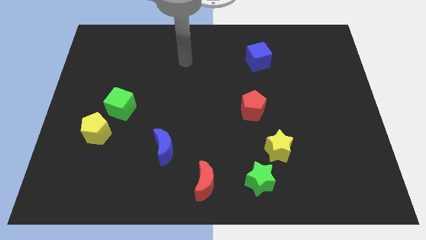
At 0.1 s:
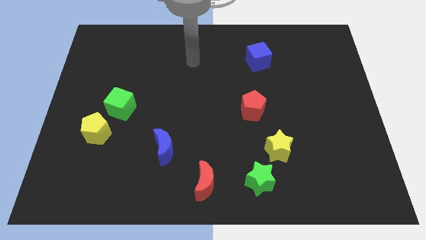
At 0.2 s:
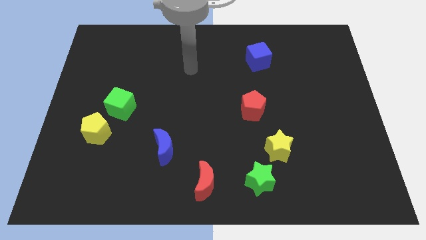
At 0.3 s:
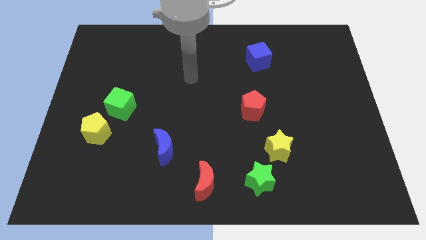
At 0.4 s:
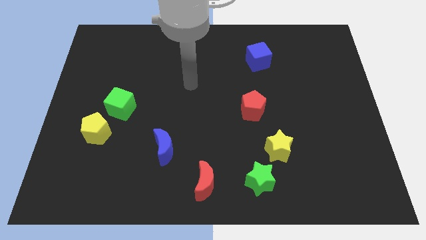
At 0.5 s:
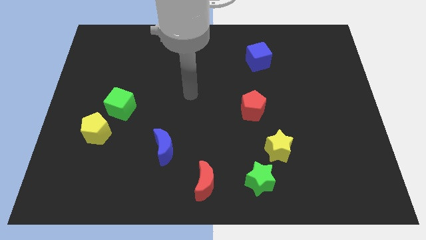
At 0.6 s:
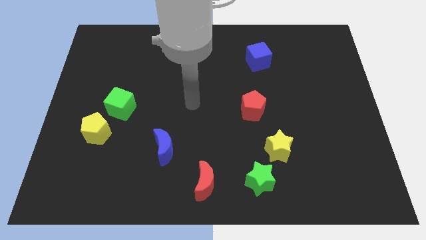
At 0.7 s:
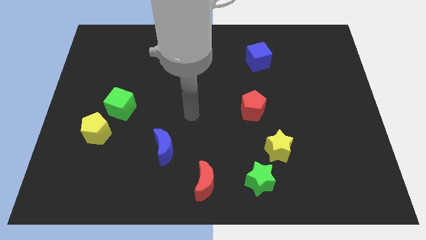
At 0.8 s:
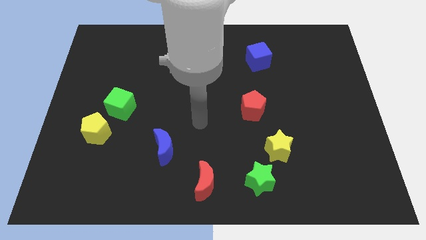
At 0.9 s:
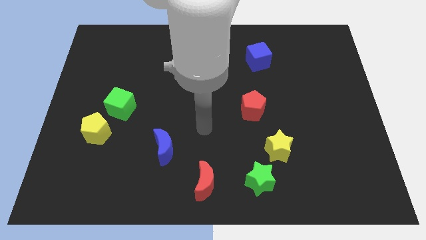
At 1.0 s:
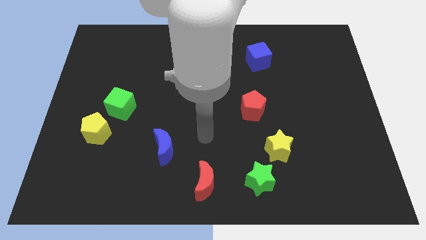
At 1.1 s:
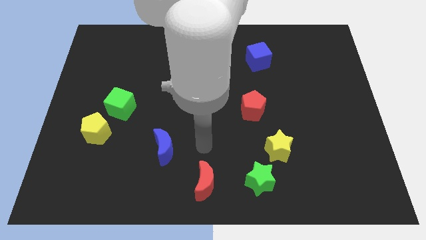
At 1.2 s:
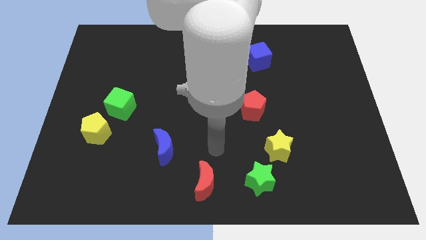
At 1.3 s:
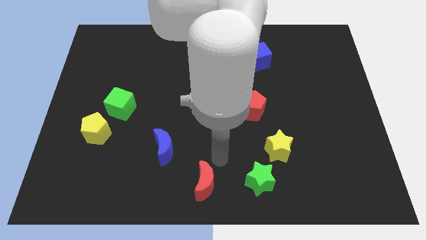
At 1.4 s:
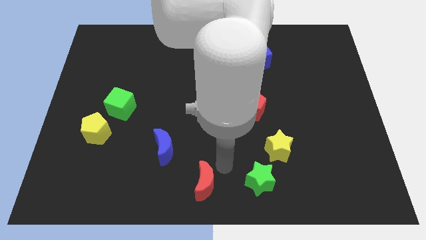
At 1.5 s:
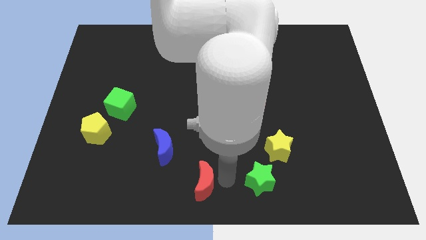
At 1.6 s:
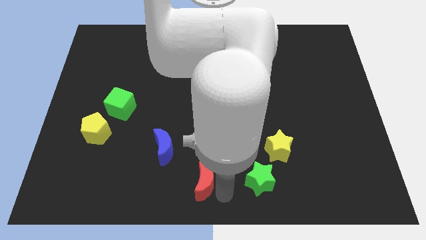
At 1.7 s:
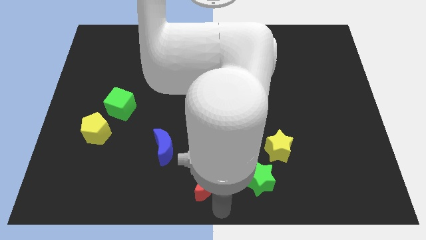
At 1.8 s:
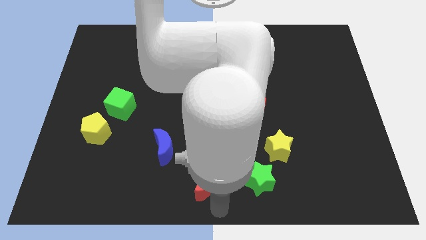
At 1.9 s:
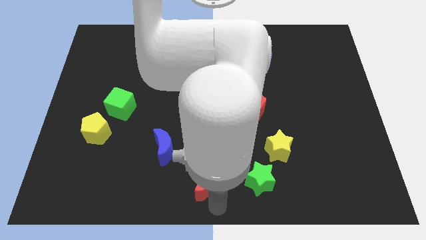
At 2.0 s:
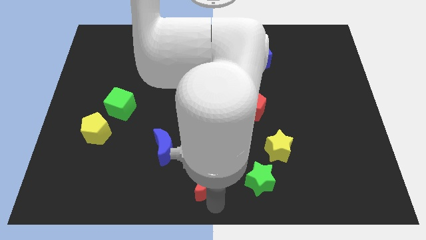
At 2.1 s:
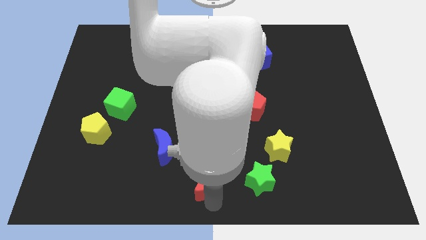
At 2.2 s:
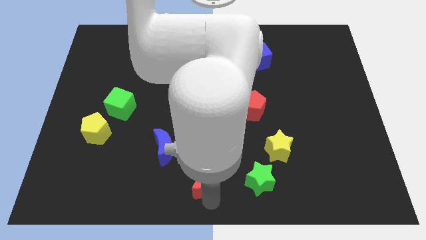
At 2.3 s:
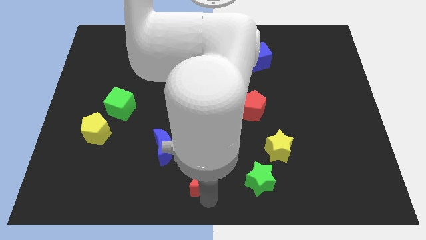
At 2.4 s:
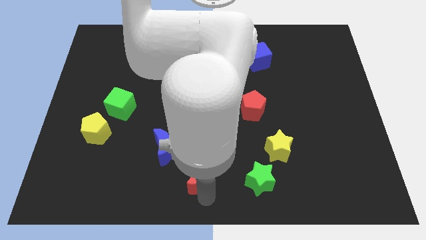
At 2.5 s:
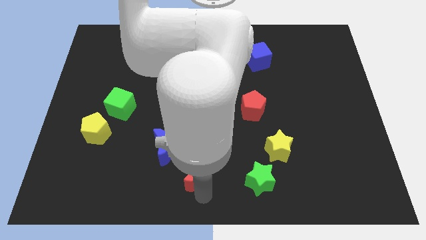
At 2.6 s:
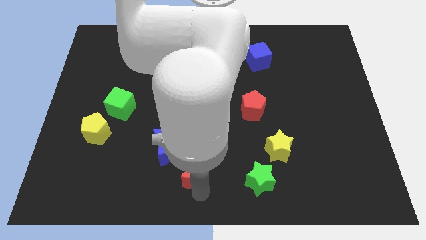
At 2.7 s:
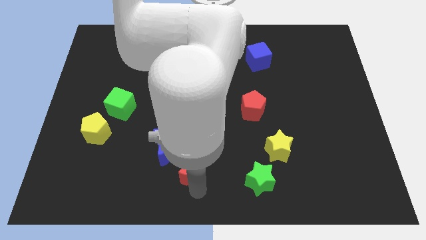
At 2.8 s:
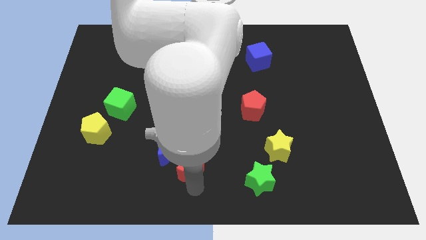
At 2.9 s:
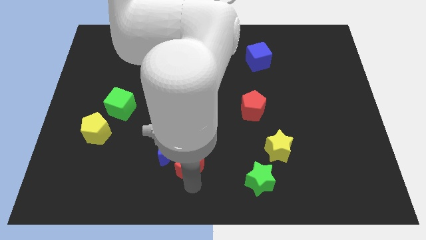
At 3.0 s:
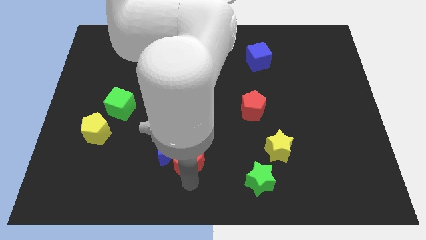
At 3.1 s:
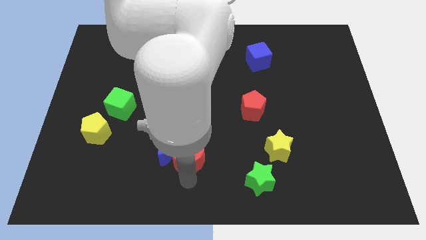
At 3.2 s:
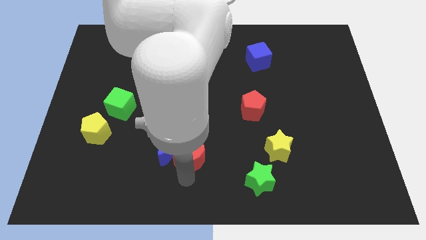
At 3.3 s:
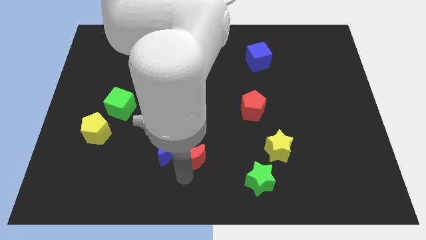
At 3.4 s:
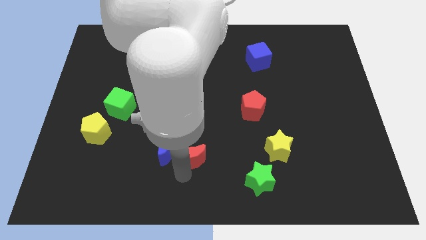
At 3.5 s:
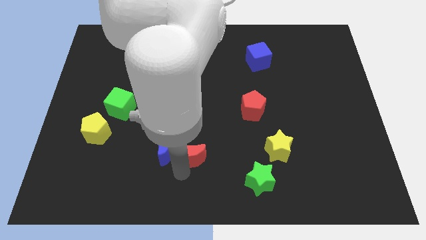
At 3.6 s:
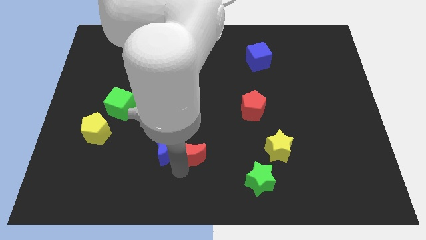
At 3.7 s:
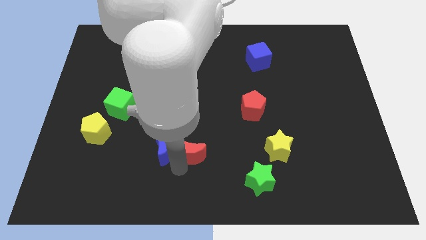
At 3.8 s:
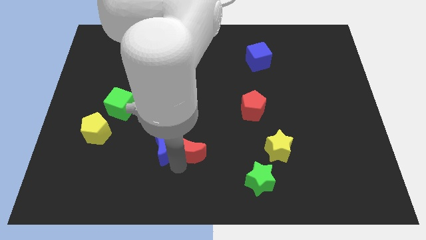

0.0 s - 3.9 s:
move the red moon upwards a little bit

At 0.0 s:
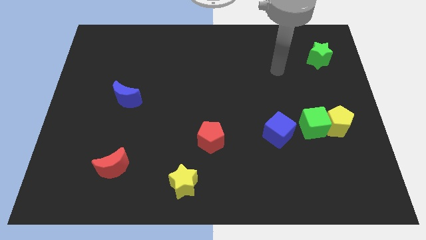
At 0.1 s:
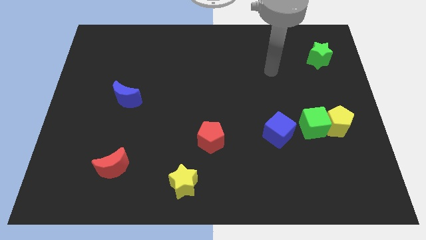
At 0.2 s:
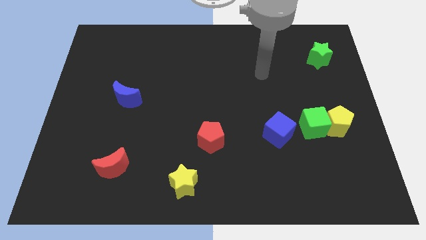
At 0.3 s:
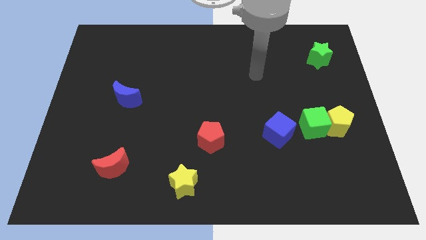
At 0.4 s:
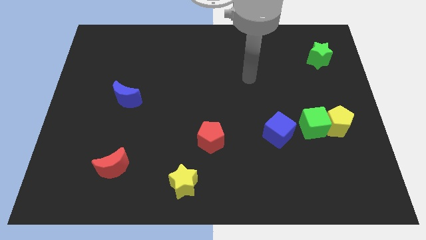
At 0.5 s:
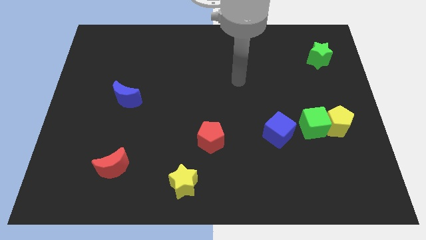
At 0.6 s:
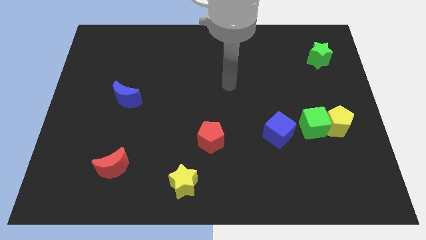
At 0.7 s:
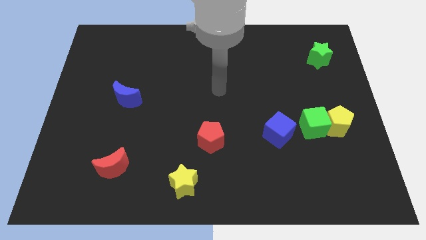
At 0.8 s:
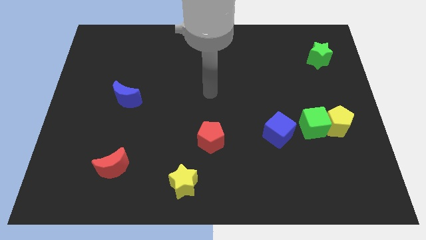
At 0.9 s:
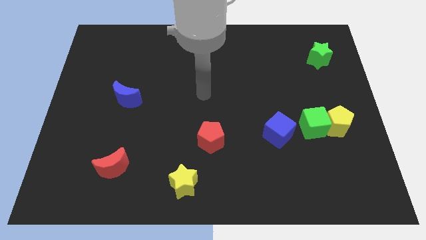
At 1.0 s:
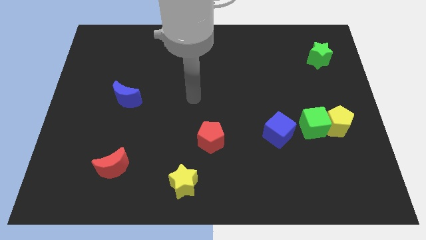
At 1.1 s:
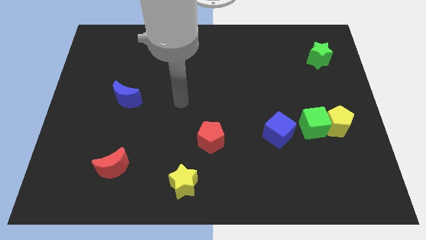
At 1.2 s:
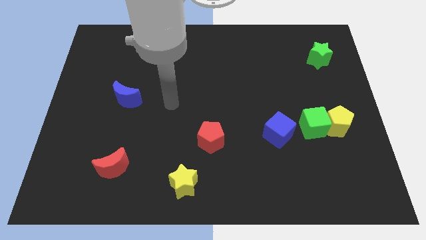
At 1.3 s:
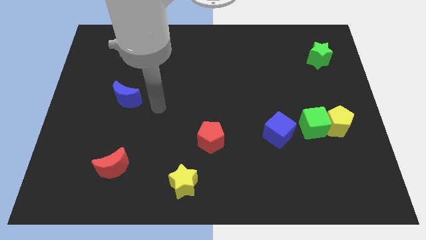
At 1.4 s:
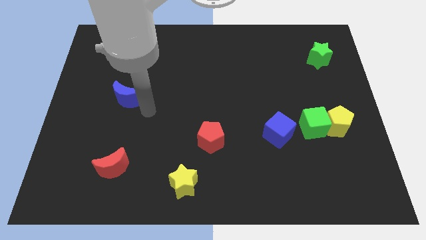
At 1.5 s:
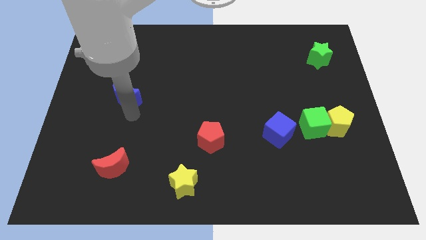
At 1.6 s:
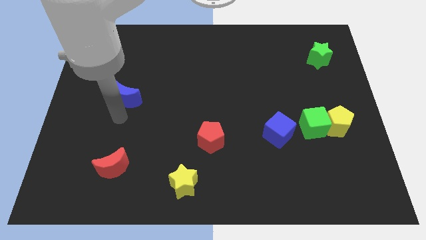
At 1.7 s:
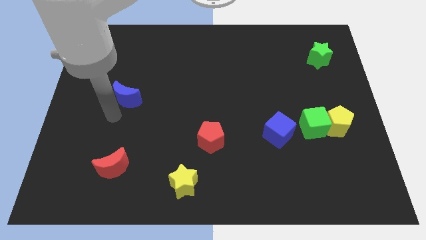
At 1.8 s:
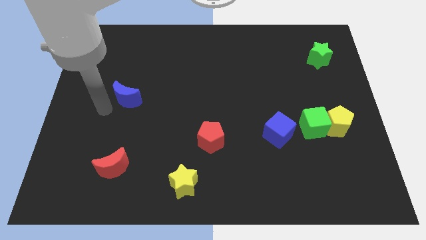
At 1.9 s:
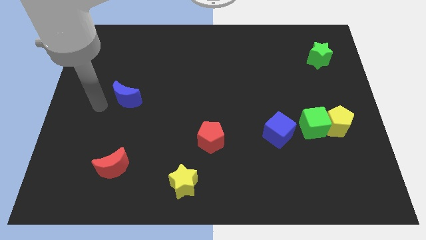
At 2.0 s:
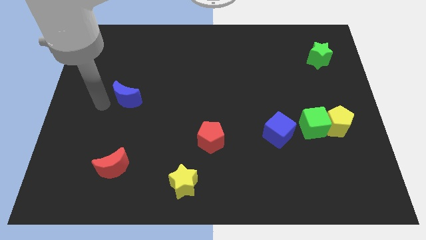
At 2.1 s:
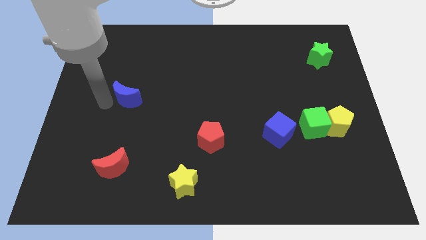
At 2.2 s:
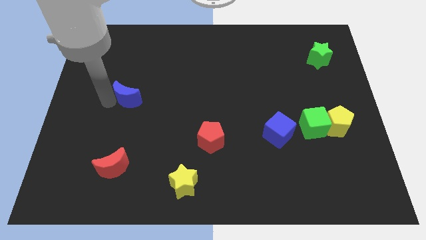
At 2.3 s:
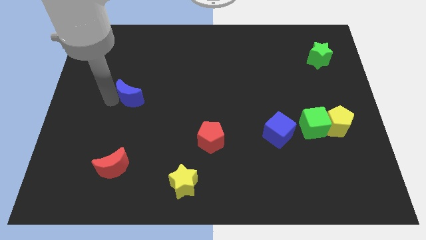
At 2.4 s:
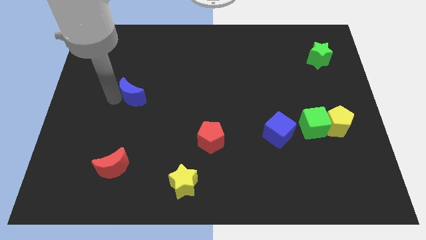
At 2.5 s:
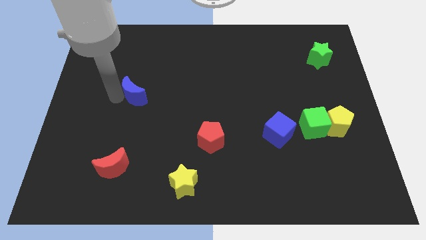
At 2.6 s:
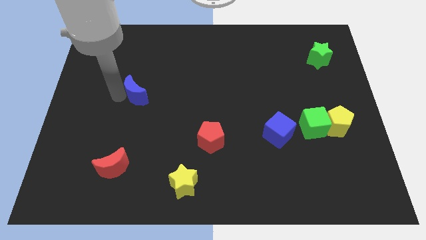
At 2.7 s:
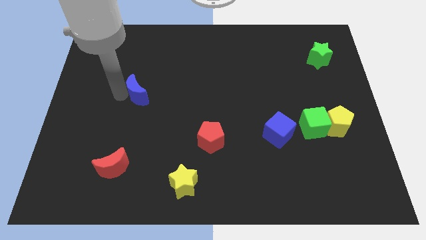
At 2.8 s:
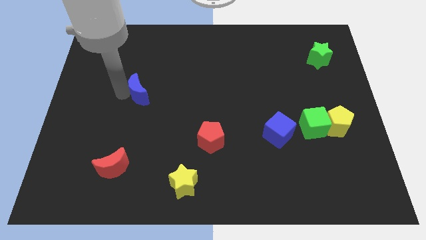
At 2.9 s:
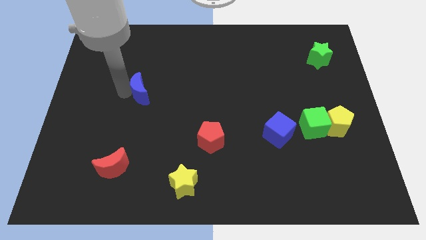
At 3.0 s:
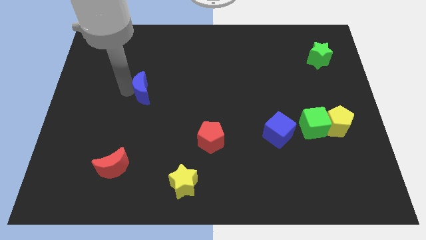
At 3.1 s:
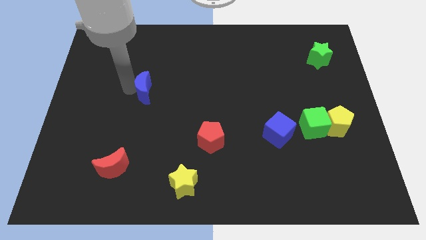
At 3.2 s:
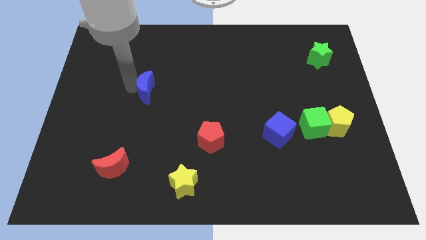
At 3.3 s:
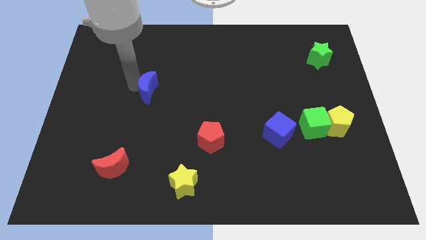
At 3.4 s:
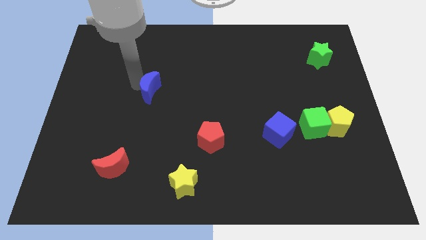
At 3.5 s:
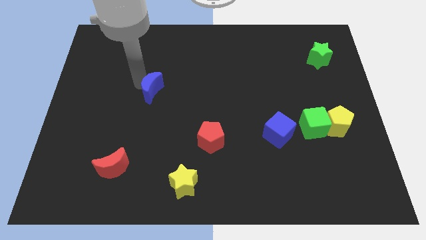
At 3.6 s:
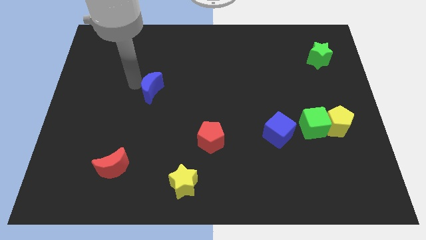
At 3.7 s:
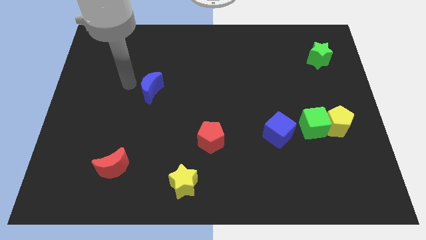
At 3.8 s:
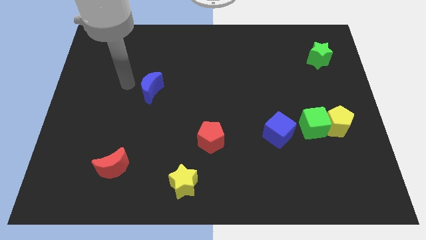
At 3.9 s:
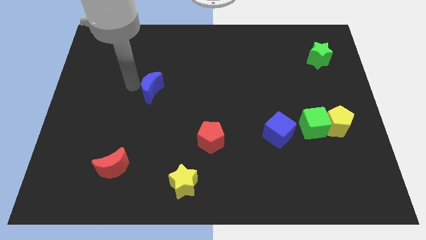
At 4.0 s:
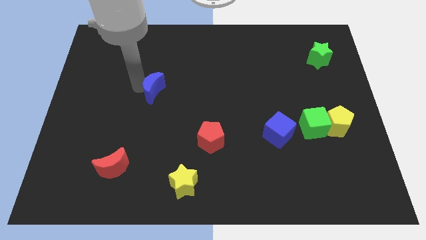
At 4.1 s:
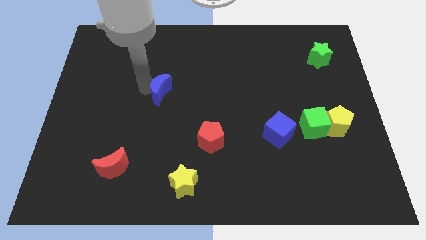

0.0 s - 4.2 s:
slightly push the blue moon right

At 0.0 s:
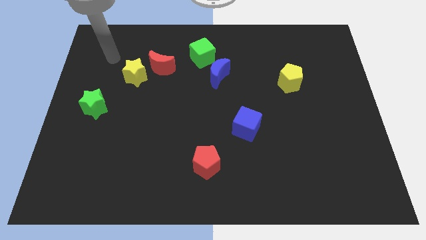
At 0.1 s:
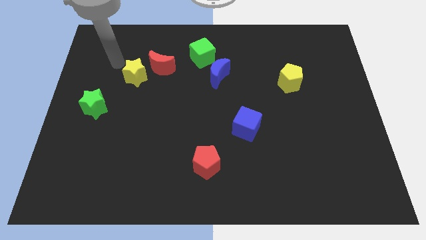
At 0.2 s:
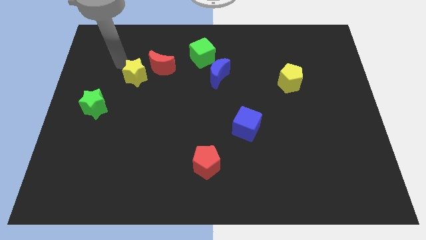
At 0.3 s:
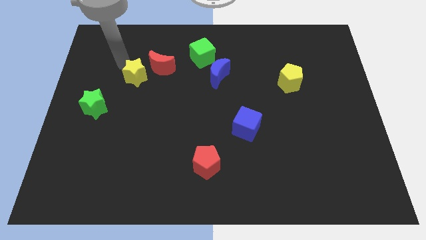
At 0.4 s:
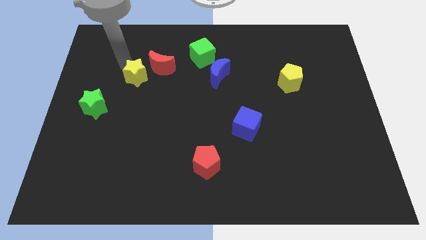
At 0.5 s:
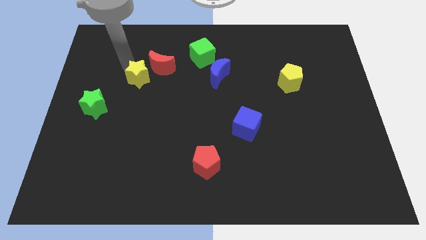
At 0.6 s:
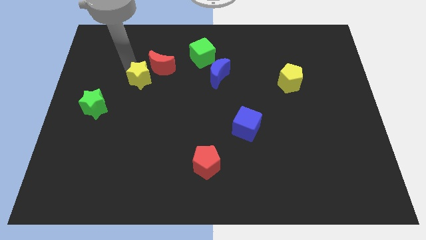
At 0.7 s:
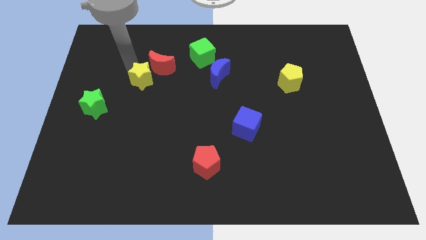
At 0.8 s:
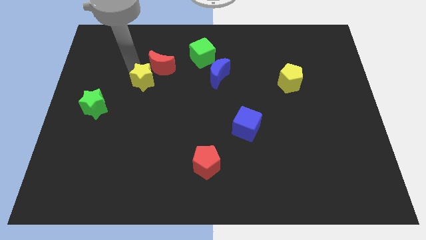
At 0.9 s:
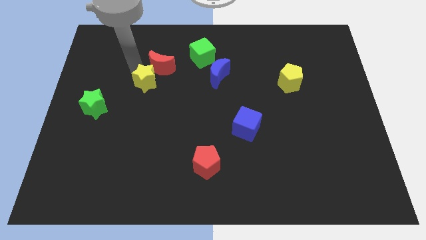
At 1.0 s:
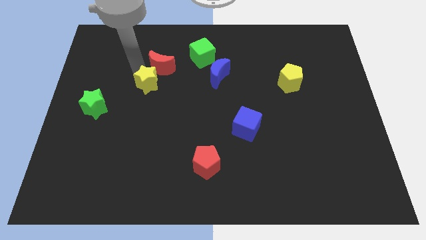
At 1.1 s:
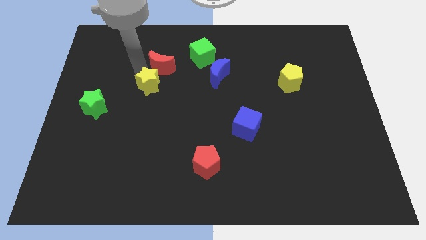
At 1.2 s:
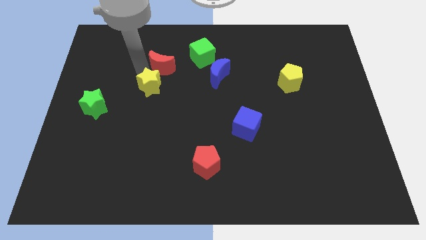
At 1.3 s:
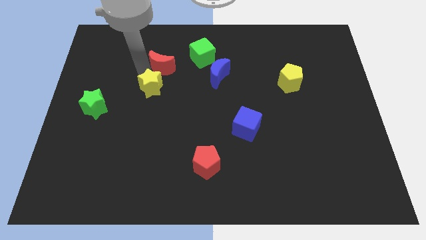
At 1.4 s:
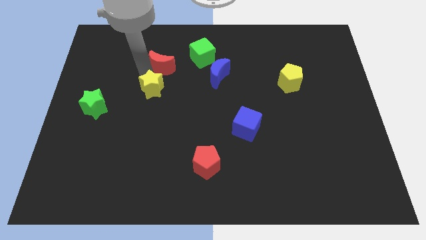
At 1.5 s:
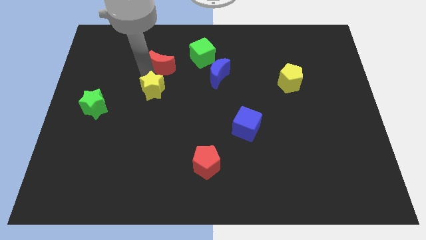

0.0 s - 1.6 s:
move the yellow star a little bit diagonally down and to the right
